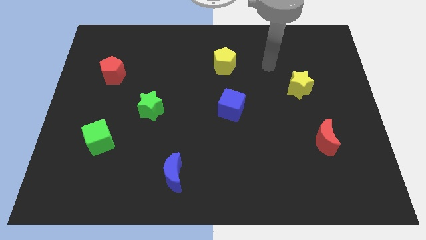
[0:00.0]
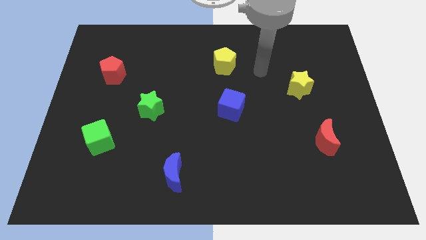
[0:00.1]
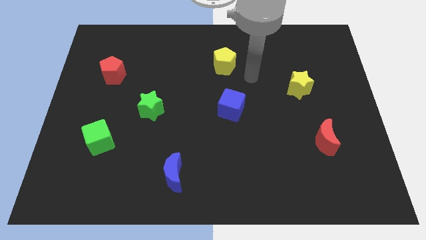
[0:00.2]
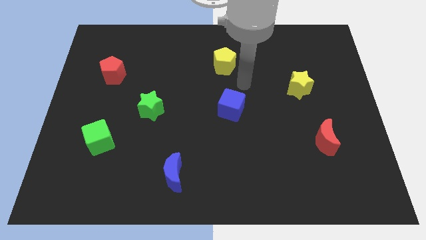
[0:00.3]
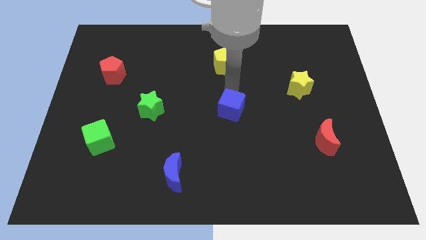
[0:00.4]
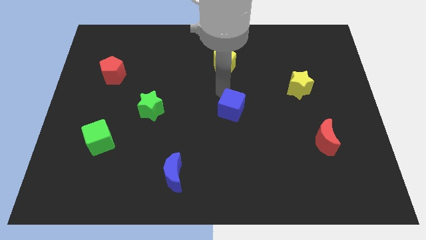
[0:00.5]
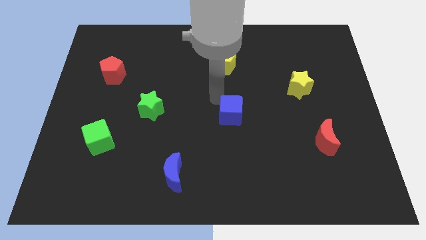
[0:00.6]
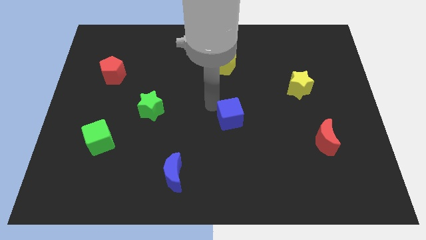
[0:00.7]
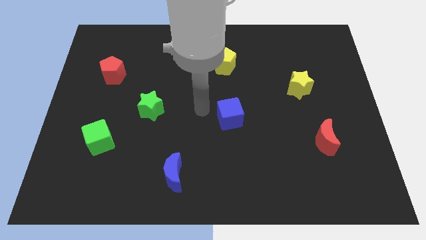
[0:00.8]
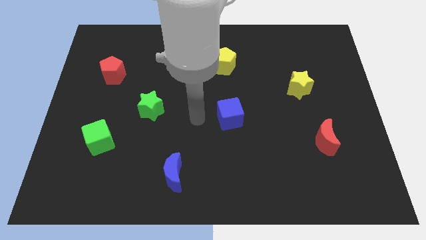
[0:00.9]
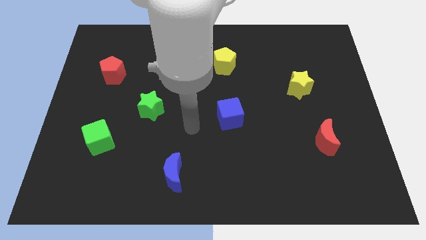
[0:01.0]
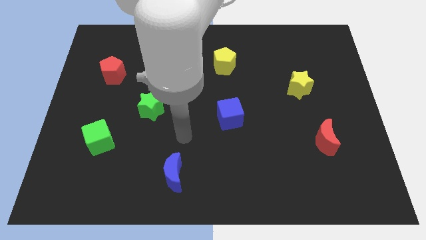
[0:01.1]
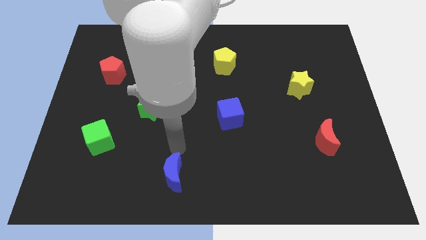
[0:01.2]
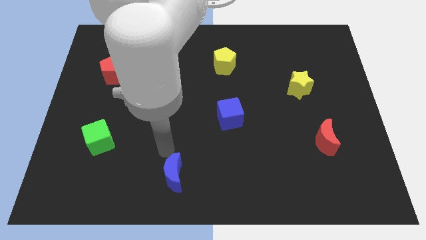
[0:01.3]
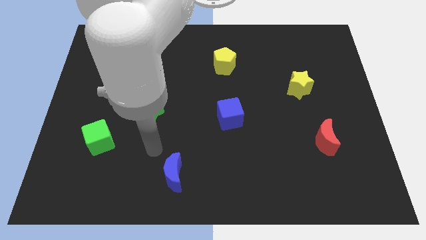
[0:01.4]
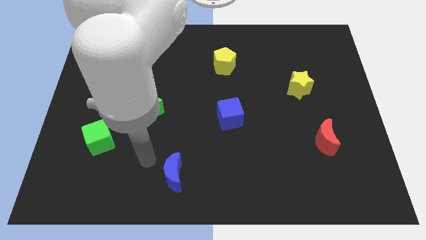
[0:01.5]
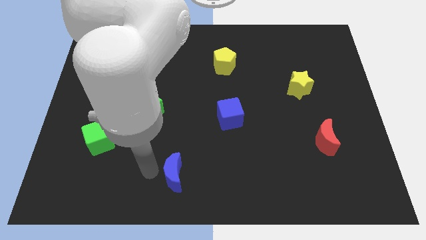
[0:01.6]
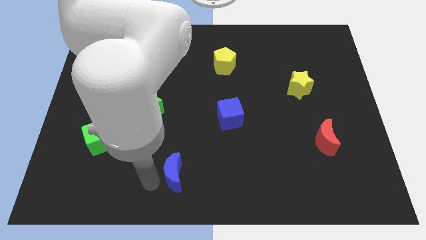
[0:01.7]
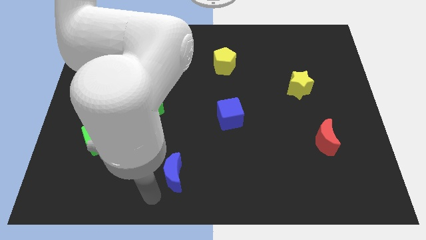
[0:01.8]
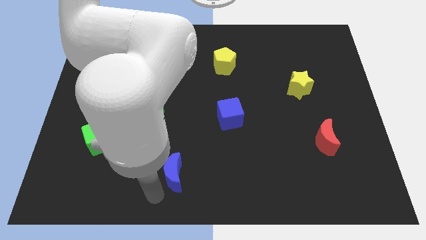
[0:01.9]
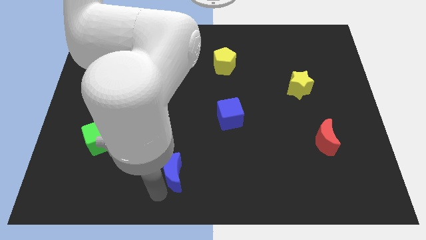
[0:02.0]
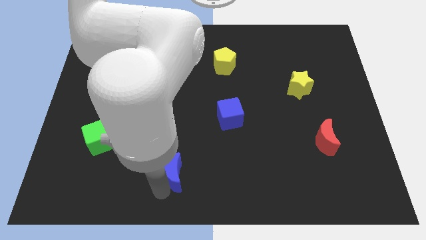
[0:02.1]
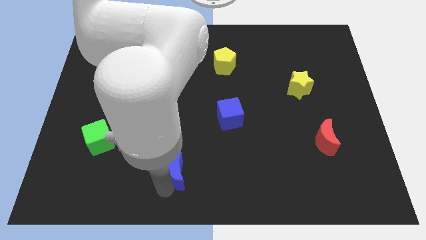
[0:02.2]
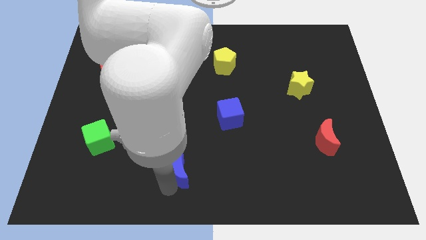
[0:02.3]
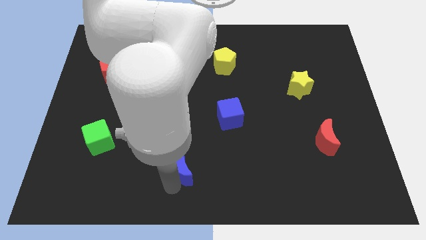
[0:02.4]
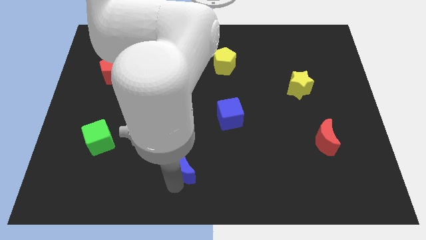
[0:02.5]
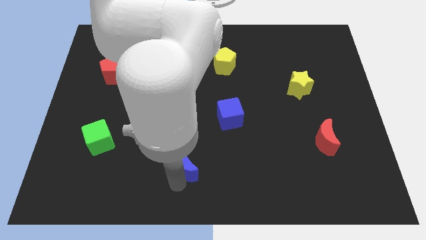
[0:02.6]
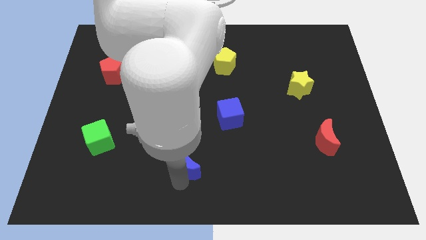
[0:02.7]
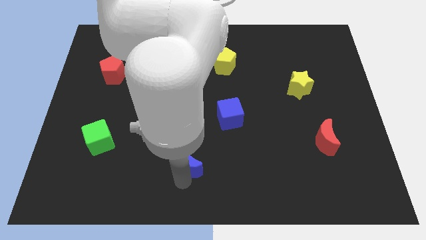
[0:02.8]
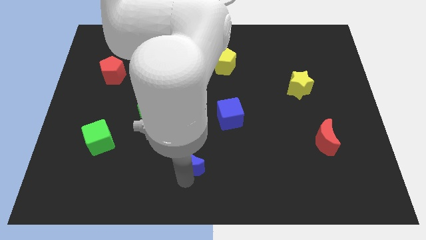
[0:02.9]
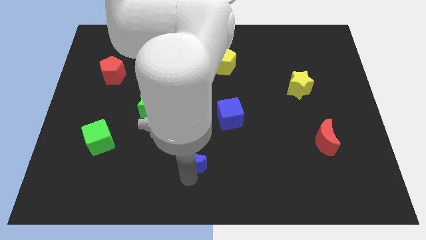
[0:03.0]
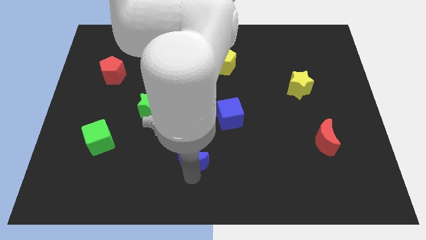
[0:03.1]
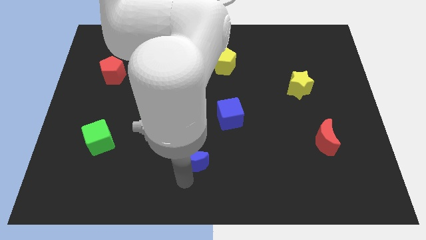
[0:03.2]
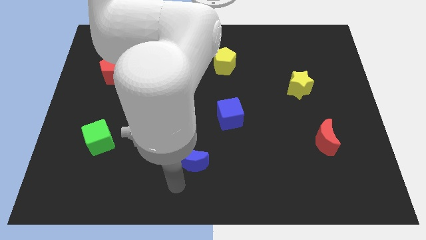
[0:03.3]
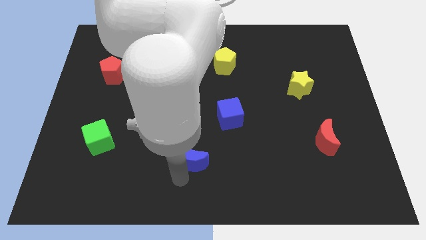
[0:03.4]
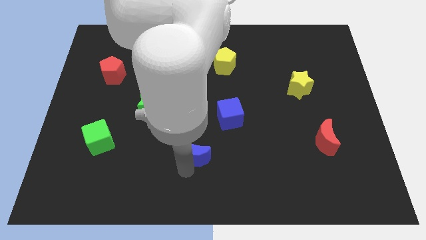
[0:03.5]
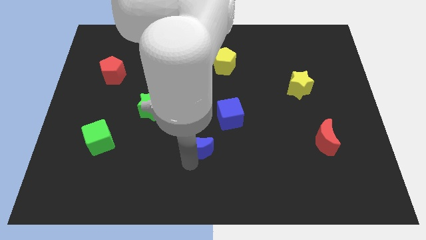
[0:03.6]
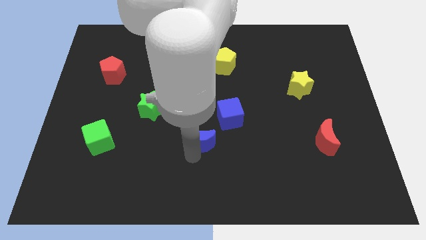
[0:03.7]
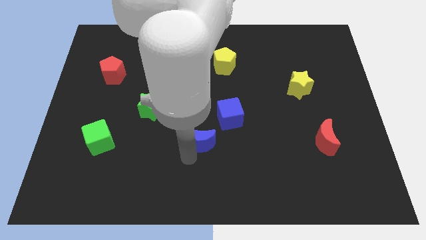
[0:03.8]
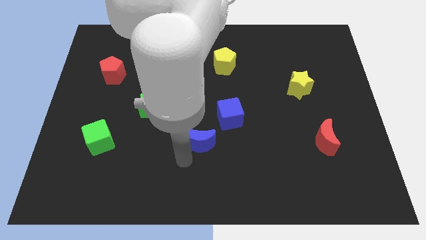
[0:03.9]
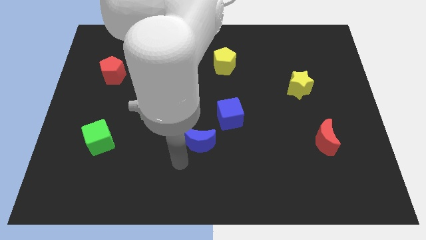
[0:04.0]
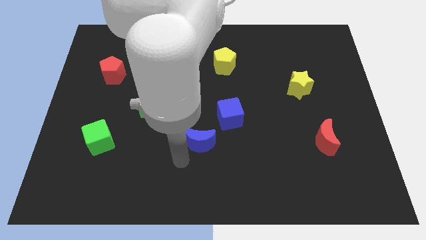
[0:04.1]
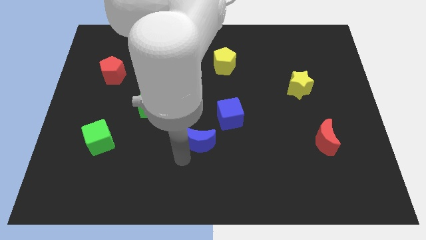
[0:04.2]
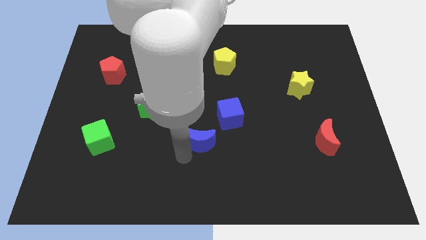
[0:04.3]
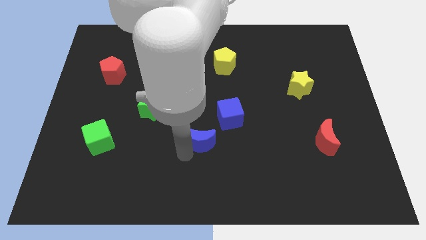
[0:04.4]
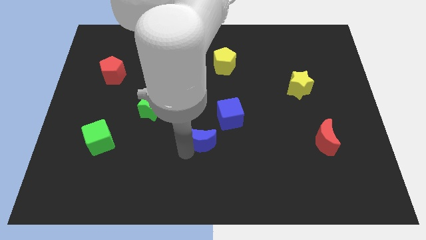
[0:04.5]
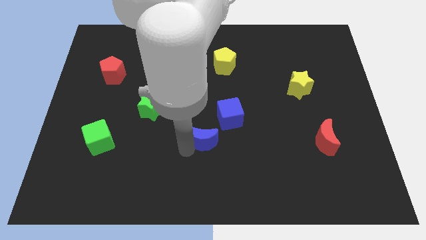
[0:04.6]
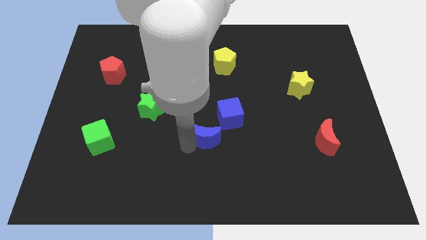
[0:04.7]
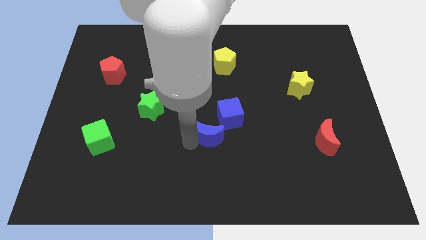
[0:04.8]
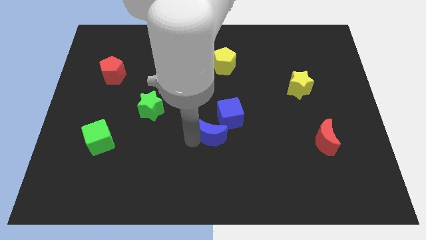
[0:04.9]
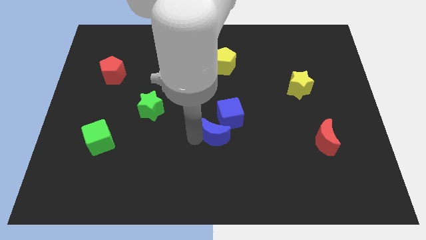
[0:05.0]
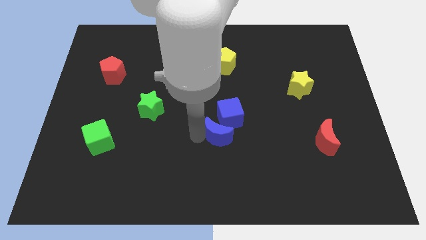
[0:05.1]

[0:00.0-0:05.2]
put the blue moon next to the blue cube

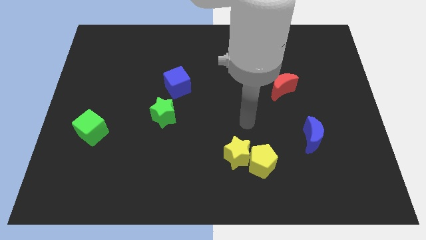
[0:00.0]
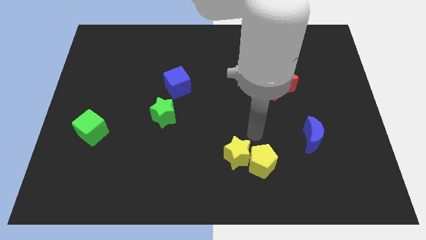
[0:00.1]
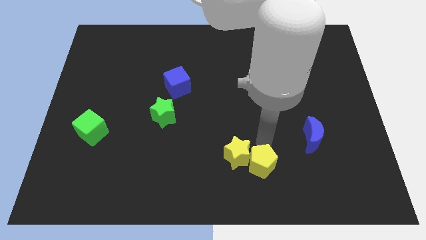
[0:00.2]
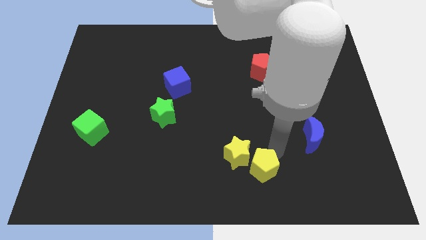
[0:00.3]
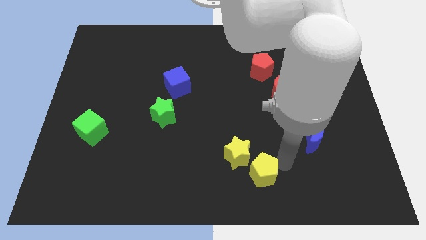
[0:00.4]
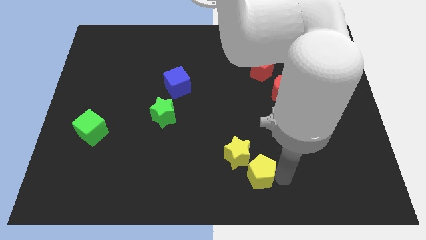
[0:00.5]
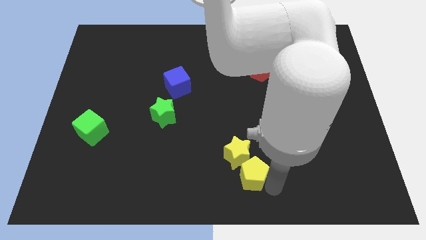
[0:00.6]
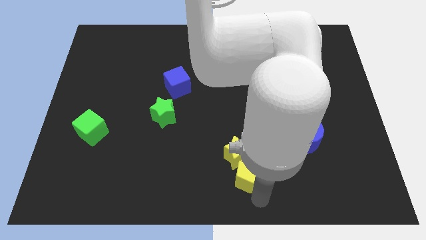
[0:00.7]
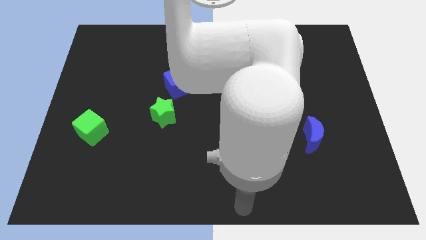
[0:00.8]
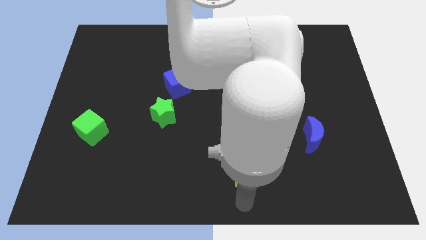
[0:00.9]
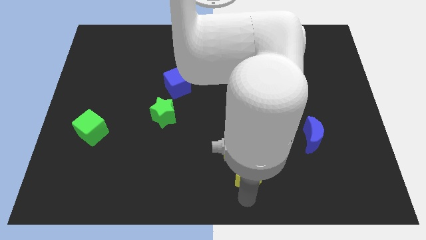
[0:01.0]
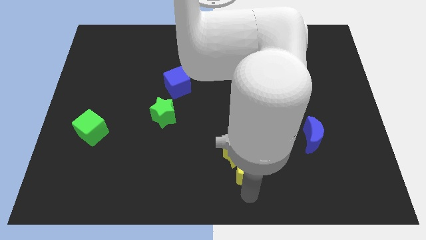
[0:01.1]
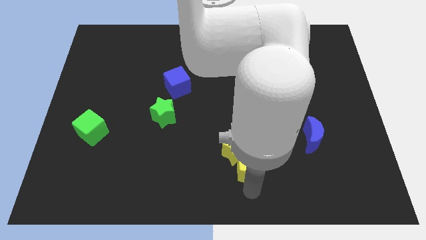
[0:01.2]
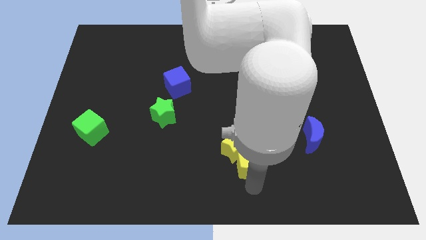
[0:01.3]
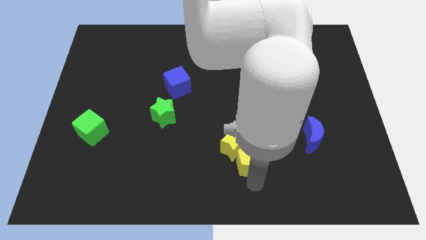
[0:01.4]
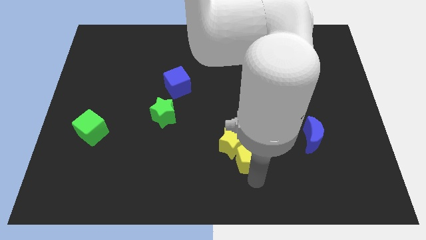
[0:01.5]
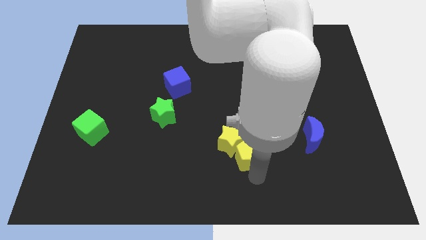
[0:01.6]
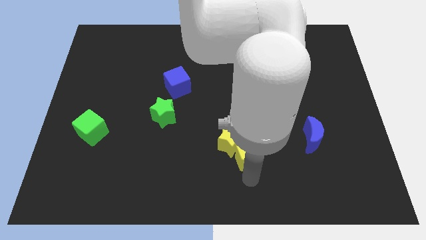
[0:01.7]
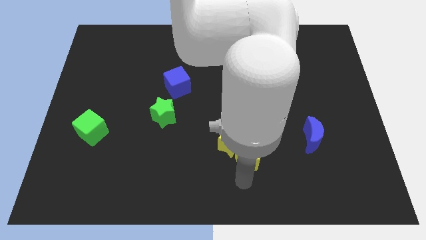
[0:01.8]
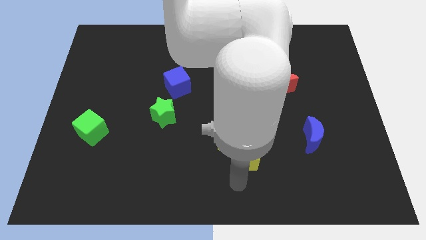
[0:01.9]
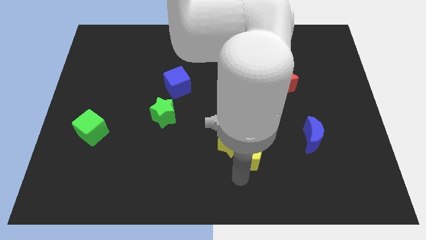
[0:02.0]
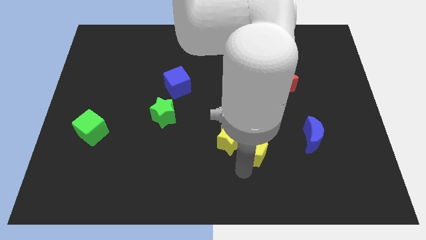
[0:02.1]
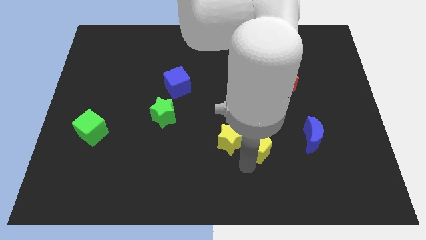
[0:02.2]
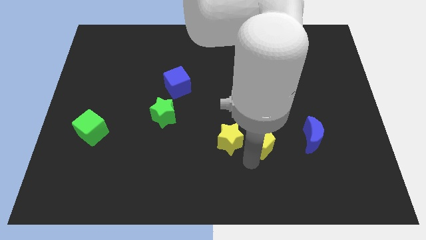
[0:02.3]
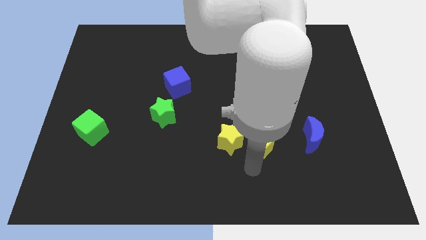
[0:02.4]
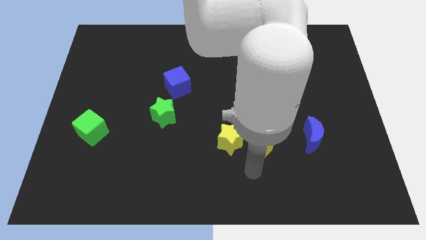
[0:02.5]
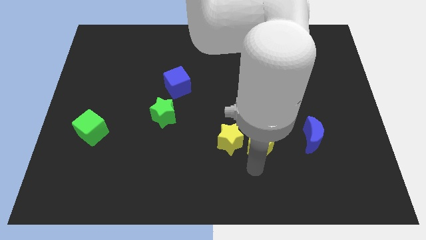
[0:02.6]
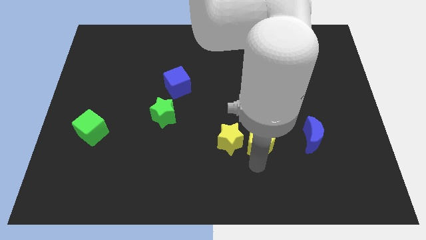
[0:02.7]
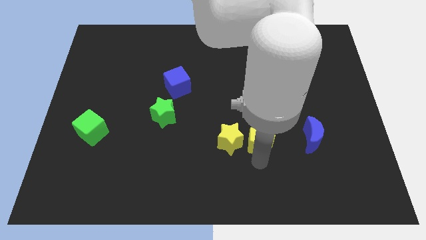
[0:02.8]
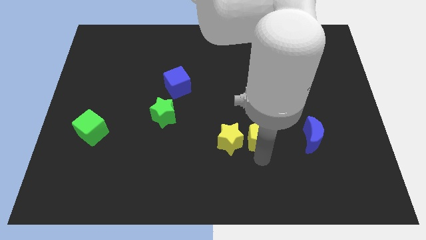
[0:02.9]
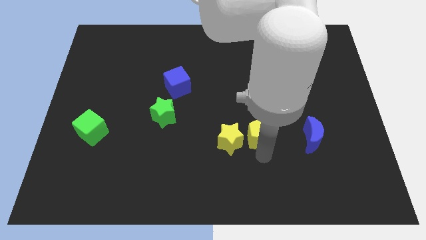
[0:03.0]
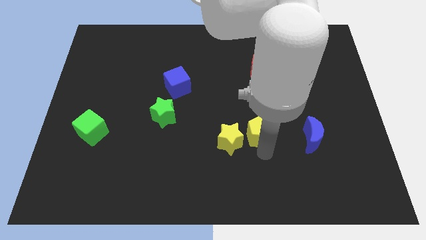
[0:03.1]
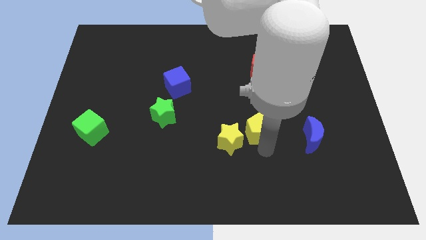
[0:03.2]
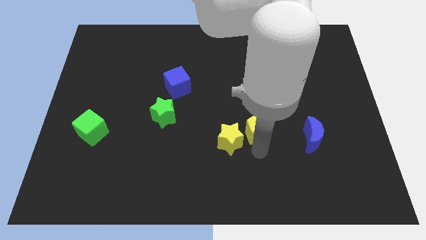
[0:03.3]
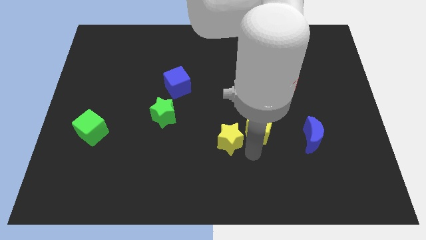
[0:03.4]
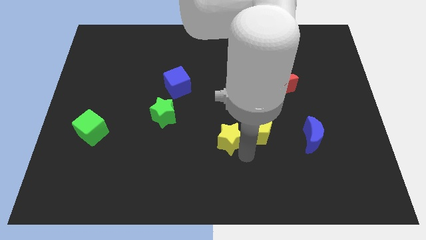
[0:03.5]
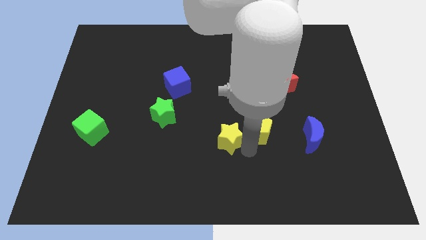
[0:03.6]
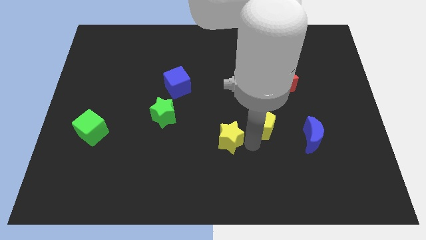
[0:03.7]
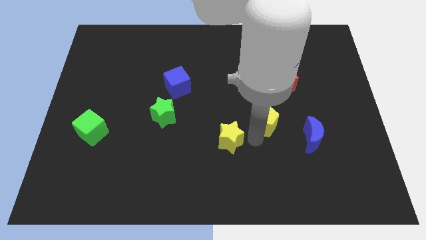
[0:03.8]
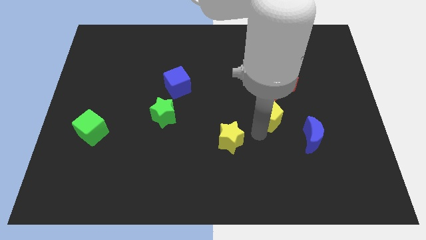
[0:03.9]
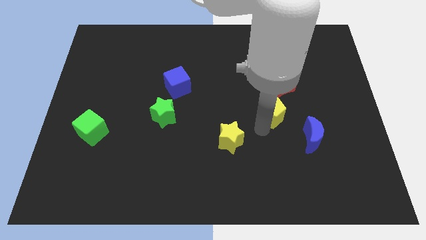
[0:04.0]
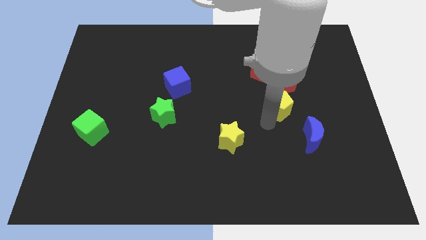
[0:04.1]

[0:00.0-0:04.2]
push the yellow pentagon close to the red moon
